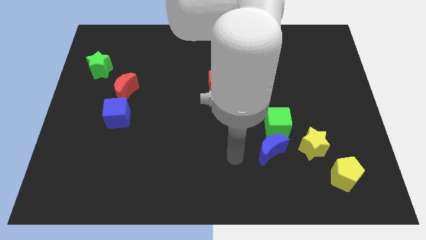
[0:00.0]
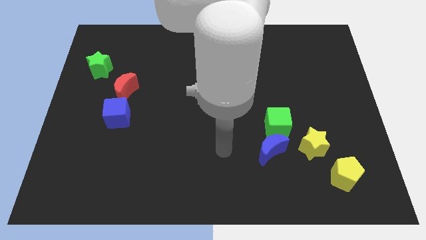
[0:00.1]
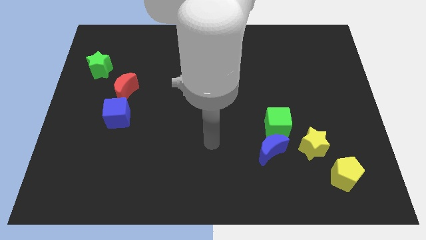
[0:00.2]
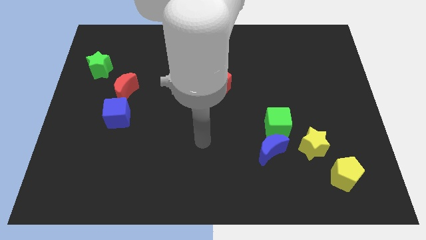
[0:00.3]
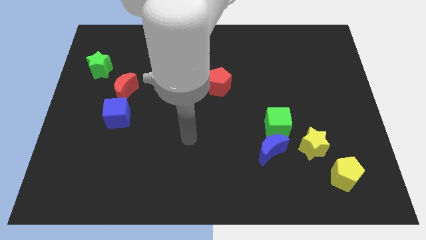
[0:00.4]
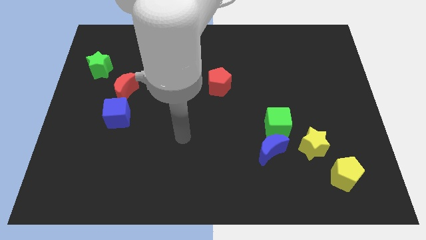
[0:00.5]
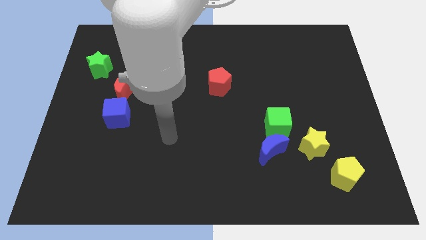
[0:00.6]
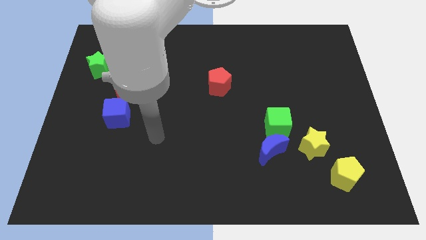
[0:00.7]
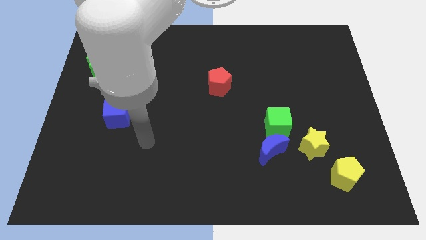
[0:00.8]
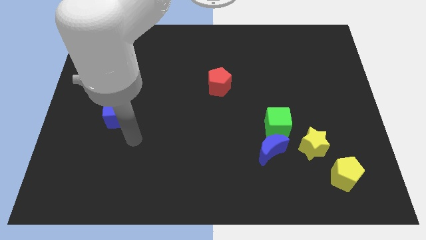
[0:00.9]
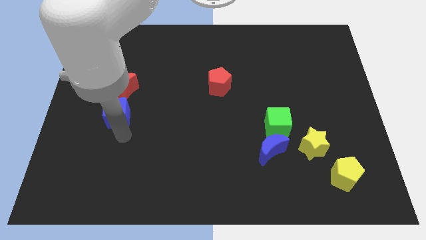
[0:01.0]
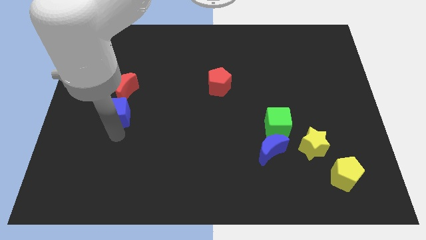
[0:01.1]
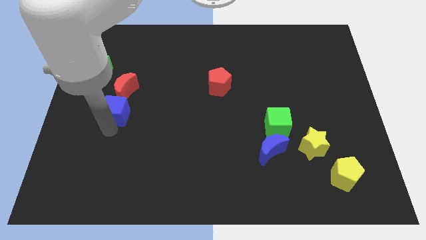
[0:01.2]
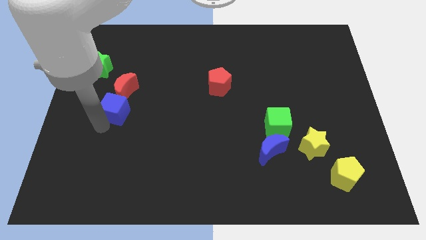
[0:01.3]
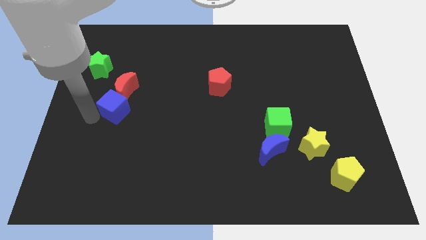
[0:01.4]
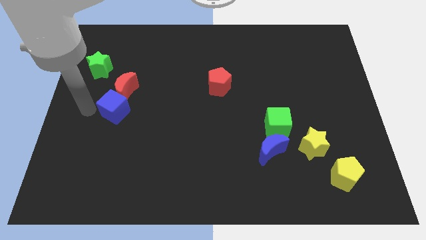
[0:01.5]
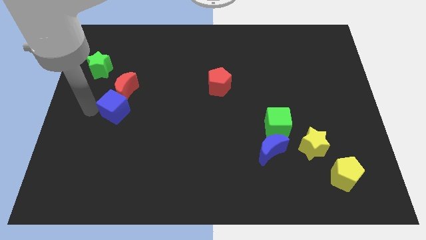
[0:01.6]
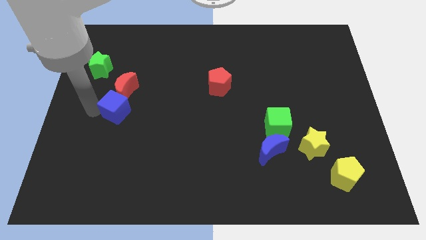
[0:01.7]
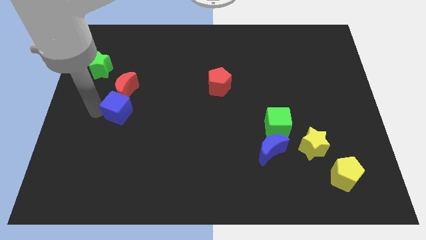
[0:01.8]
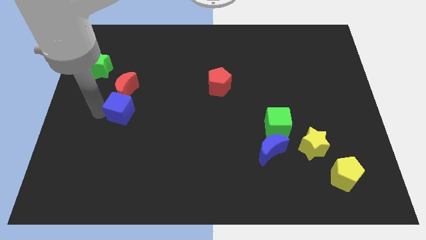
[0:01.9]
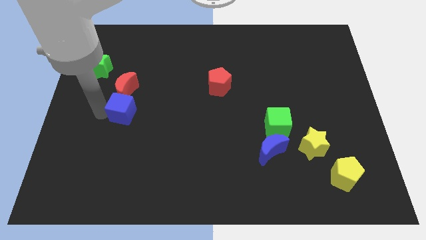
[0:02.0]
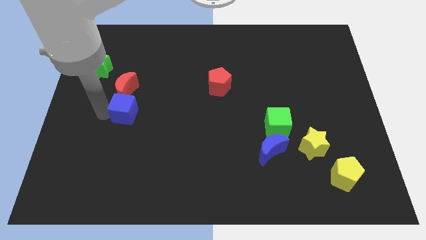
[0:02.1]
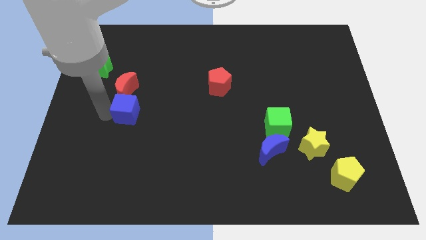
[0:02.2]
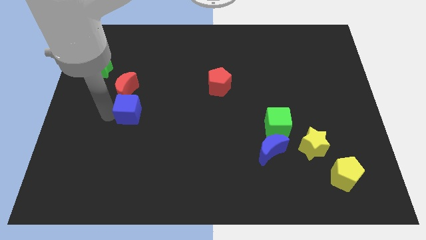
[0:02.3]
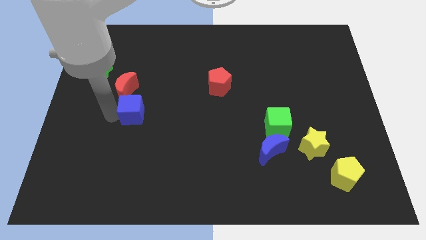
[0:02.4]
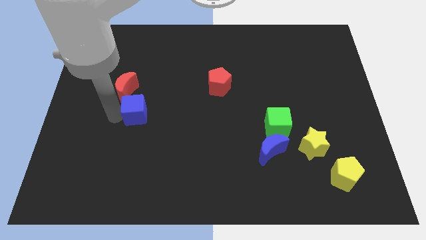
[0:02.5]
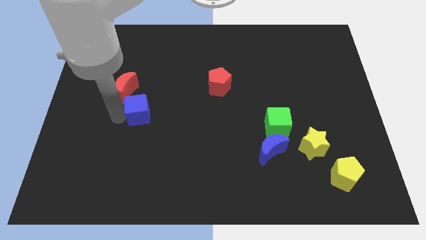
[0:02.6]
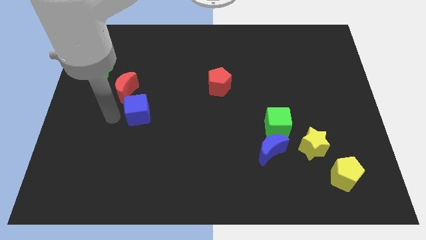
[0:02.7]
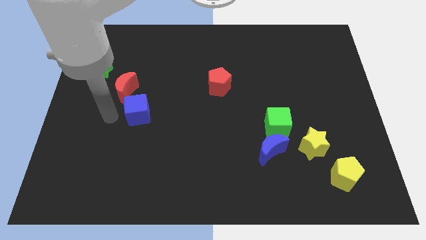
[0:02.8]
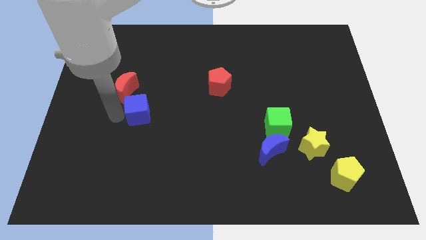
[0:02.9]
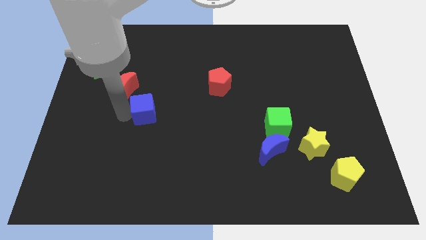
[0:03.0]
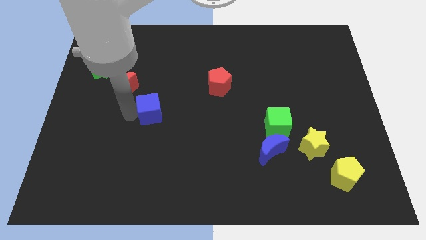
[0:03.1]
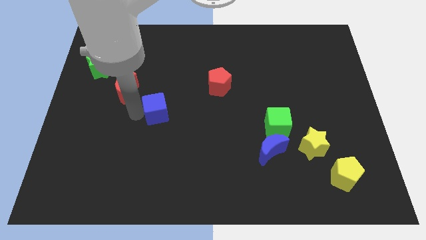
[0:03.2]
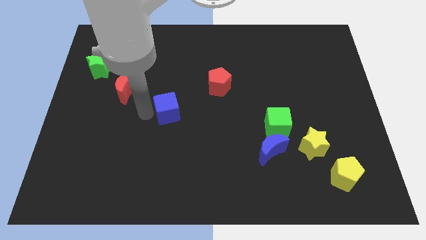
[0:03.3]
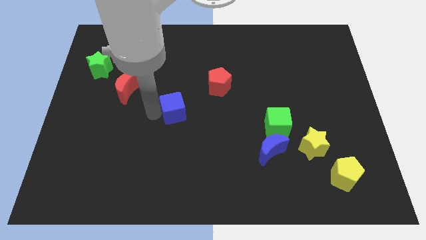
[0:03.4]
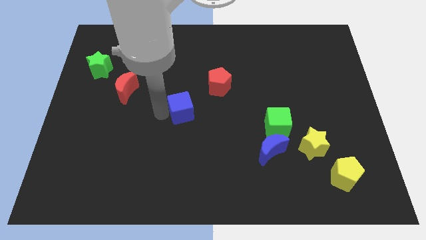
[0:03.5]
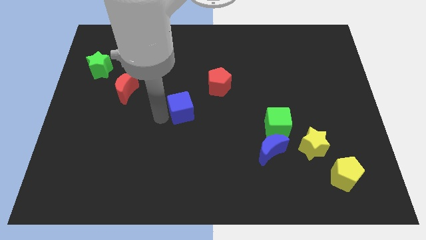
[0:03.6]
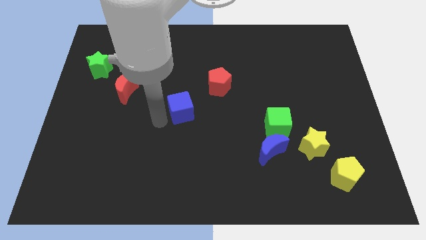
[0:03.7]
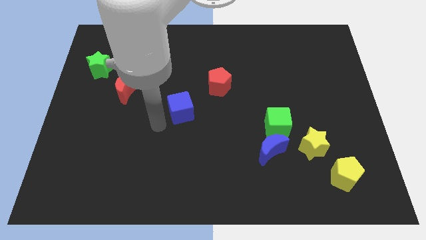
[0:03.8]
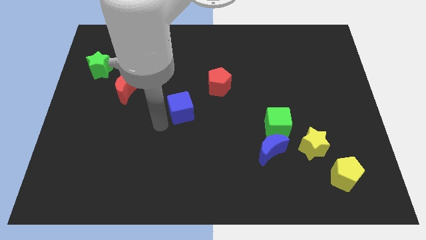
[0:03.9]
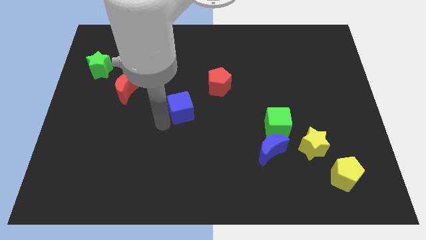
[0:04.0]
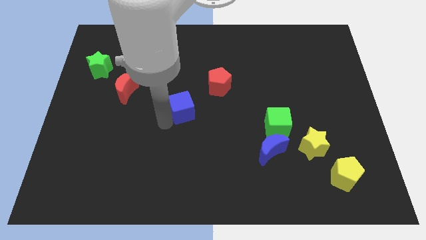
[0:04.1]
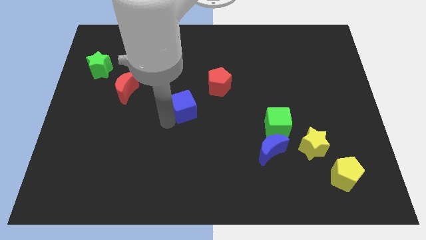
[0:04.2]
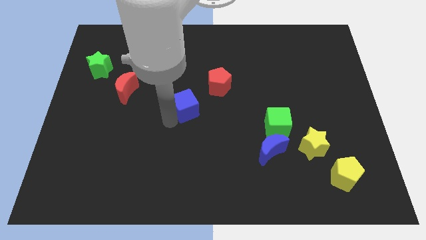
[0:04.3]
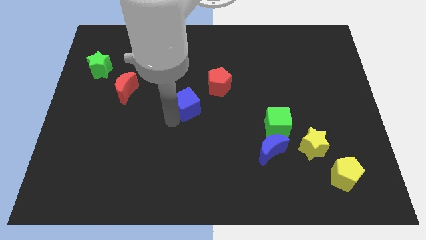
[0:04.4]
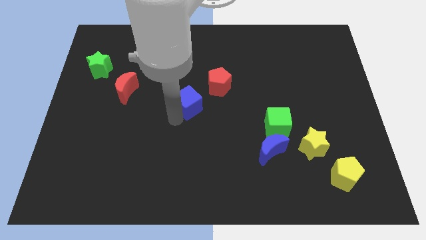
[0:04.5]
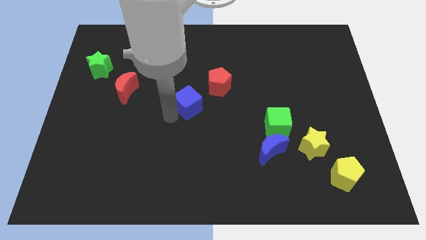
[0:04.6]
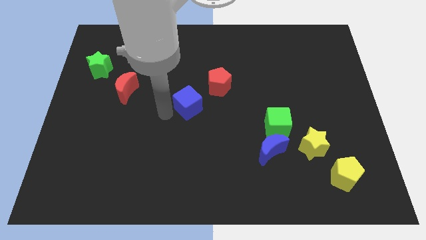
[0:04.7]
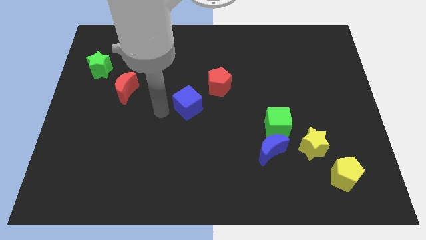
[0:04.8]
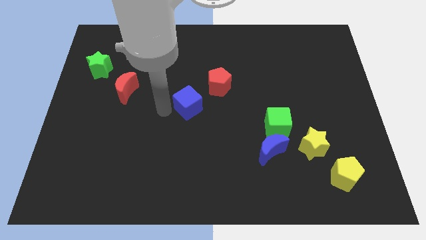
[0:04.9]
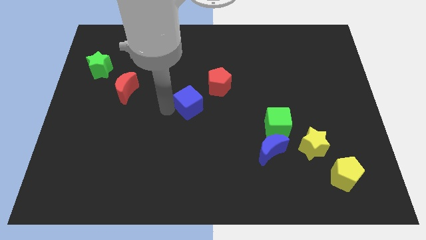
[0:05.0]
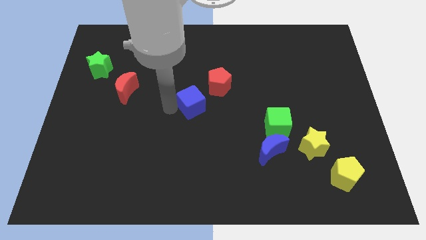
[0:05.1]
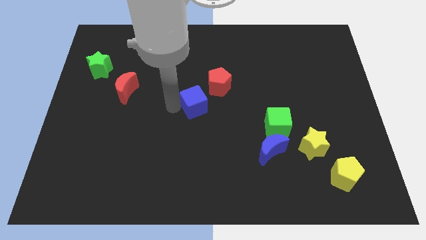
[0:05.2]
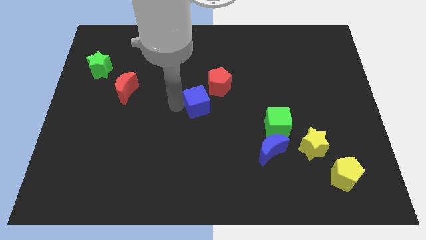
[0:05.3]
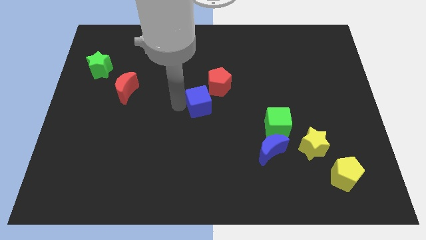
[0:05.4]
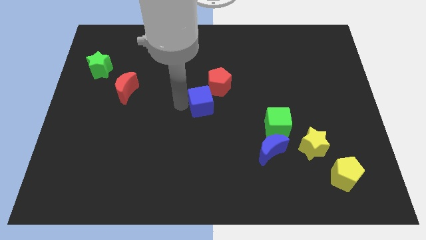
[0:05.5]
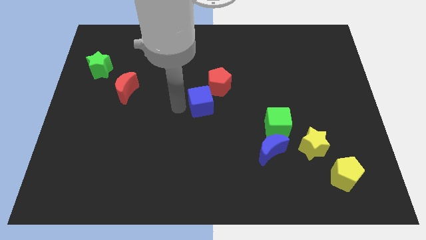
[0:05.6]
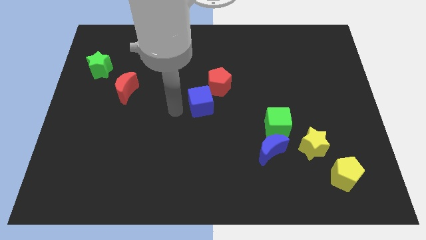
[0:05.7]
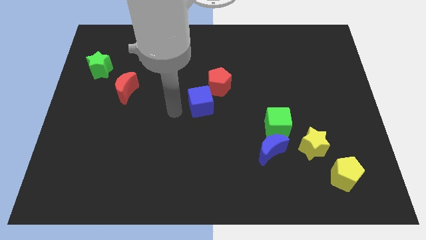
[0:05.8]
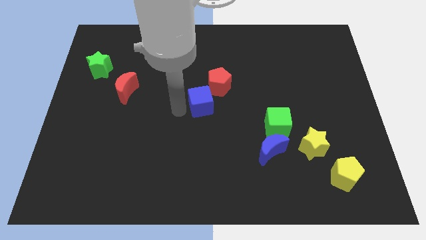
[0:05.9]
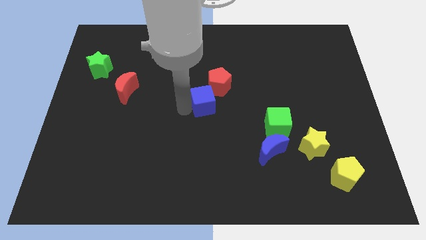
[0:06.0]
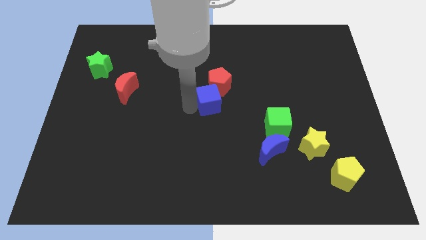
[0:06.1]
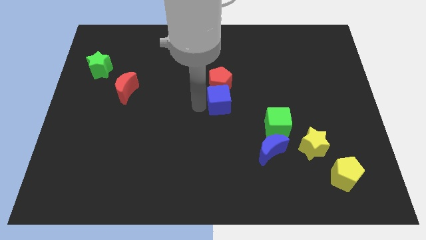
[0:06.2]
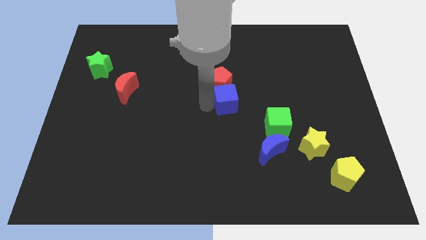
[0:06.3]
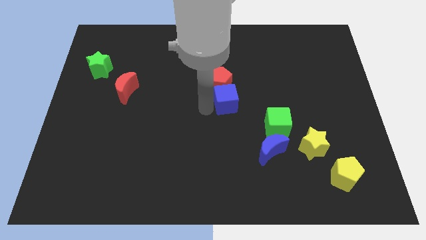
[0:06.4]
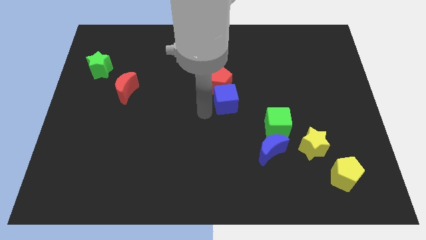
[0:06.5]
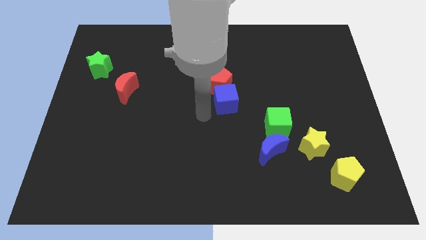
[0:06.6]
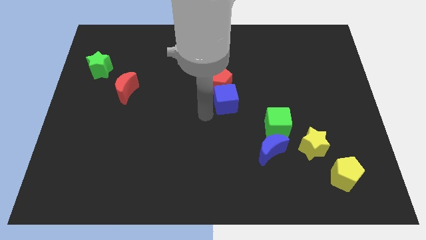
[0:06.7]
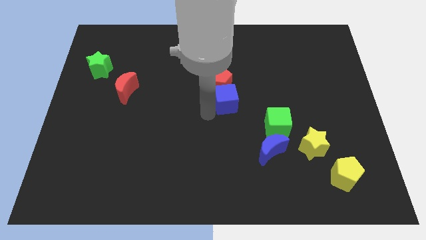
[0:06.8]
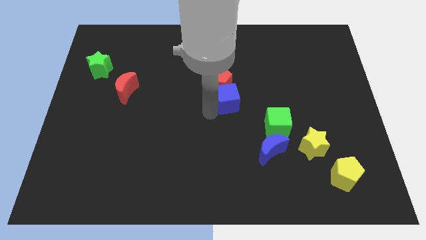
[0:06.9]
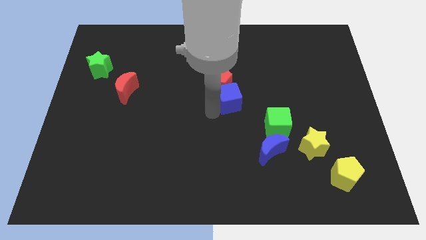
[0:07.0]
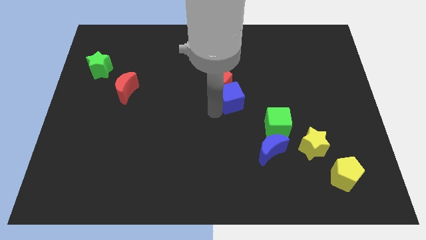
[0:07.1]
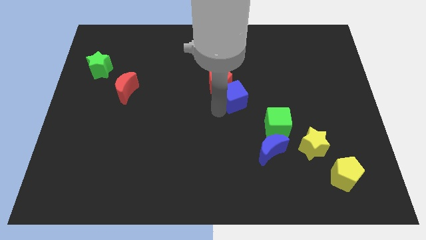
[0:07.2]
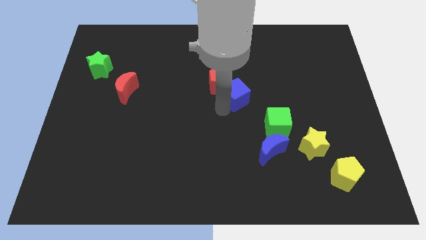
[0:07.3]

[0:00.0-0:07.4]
slide the blue cube to the right side of the red pentagon
